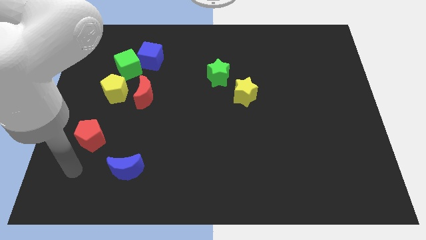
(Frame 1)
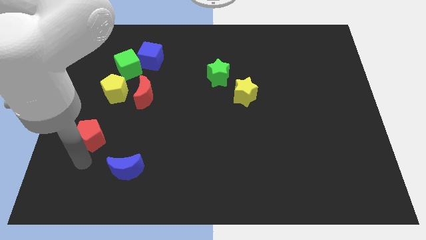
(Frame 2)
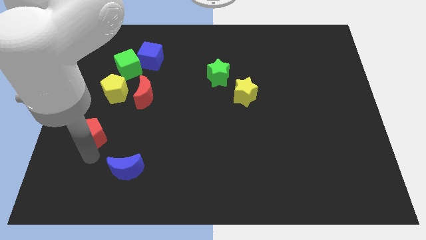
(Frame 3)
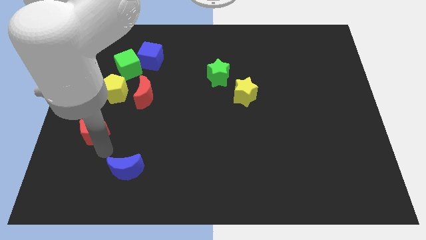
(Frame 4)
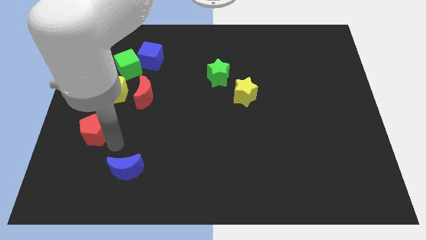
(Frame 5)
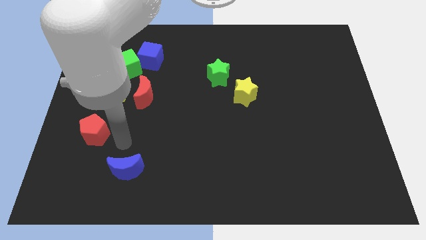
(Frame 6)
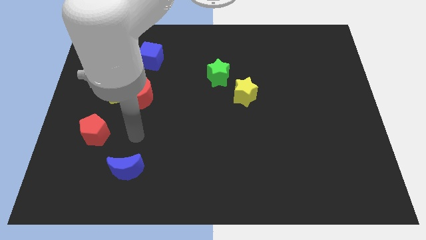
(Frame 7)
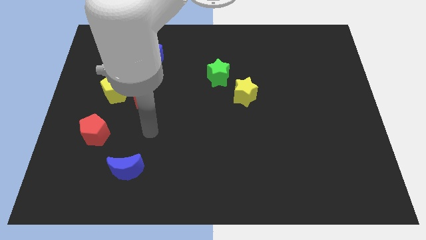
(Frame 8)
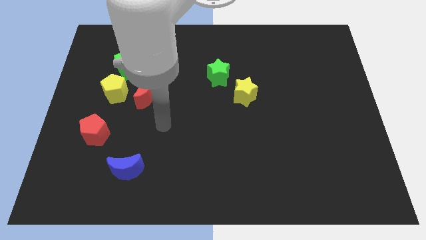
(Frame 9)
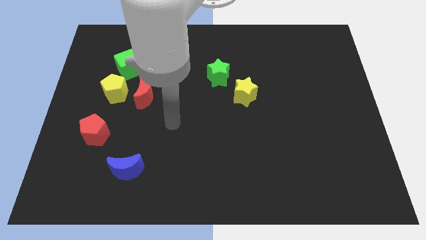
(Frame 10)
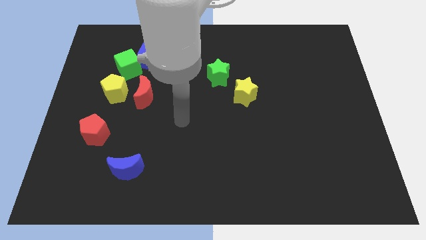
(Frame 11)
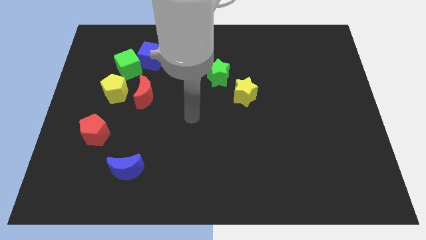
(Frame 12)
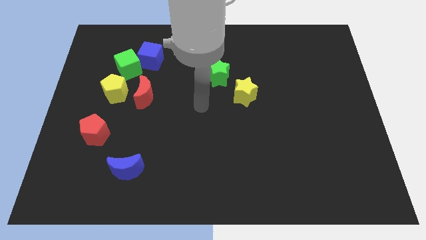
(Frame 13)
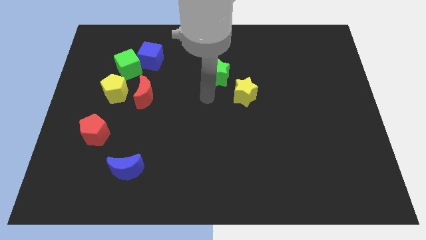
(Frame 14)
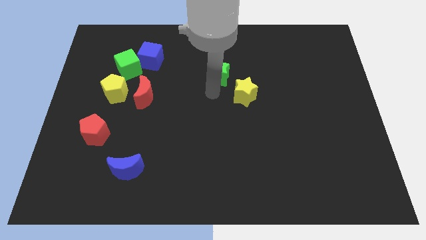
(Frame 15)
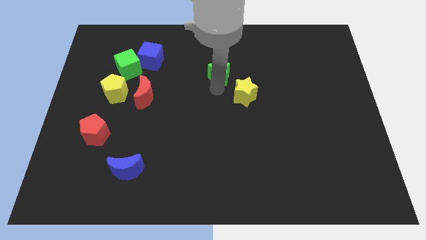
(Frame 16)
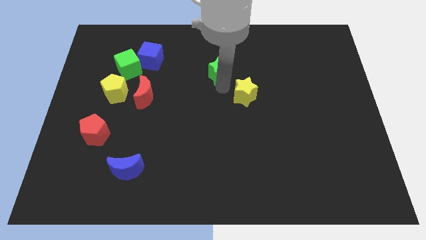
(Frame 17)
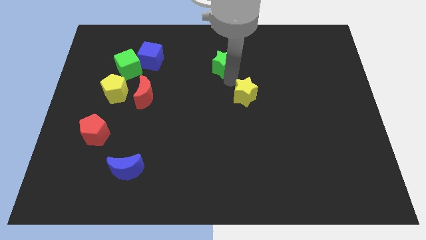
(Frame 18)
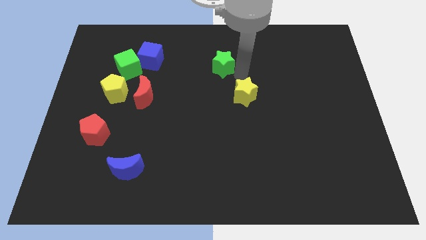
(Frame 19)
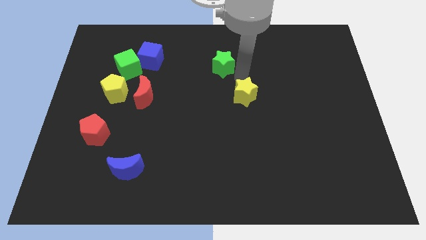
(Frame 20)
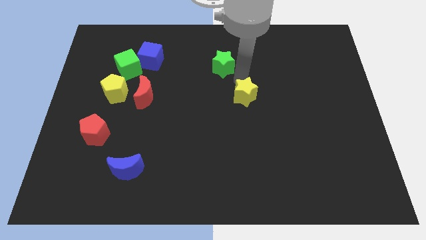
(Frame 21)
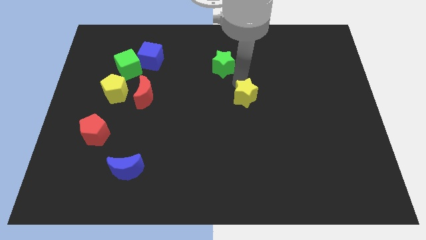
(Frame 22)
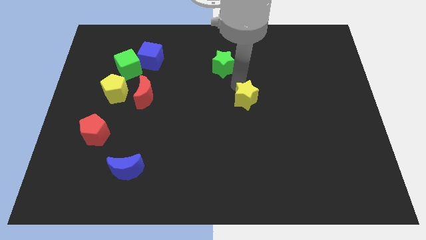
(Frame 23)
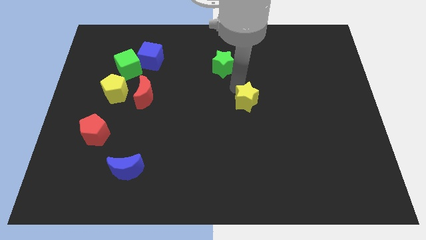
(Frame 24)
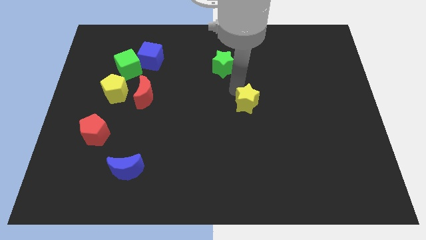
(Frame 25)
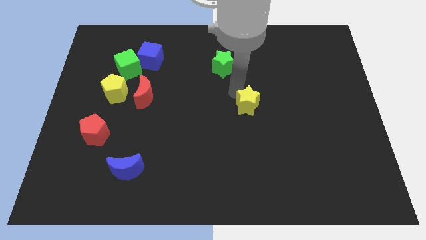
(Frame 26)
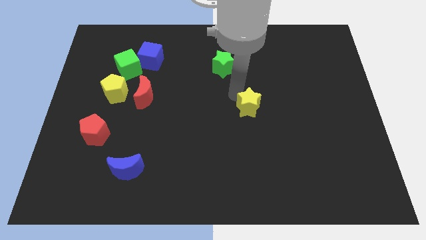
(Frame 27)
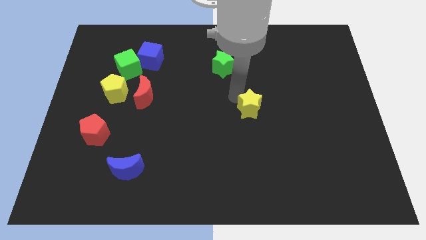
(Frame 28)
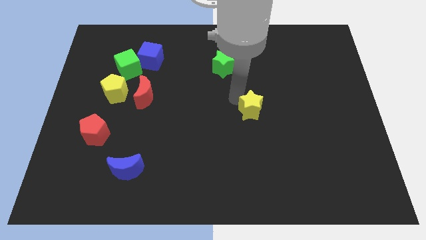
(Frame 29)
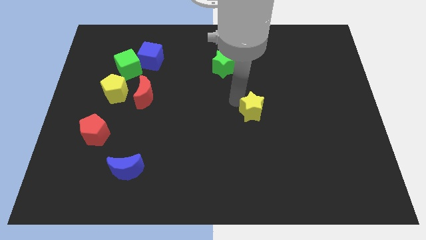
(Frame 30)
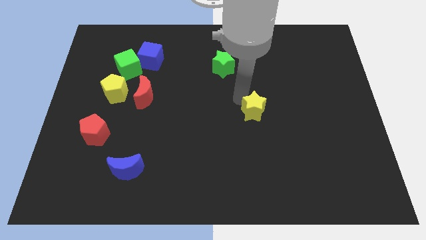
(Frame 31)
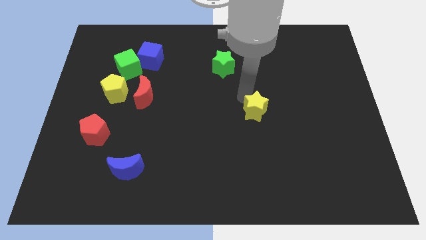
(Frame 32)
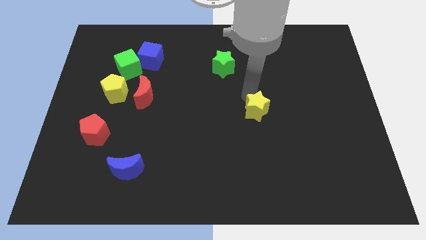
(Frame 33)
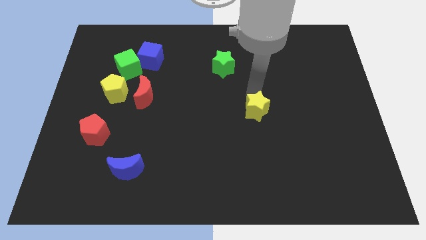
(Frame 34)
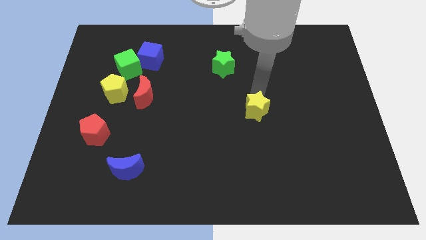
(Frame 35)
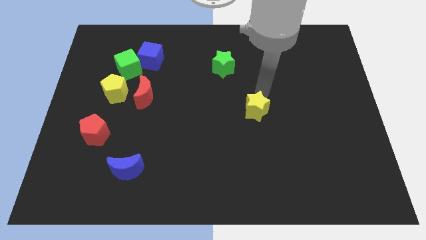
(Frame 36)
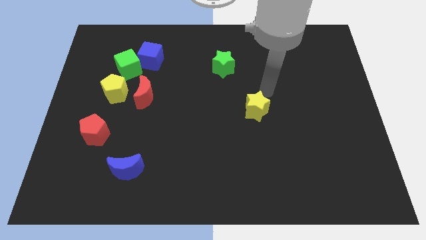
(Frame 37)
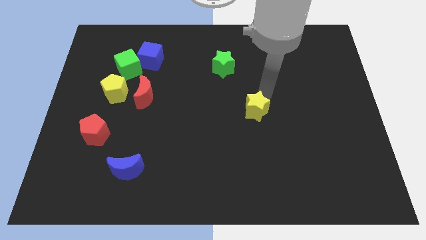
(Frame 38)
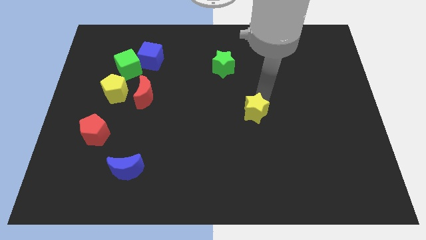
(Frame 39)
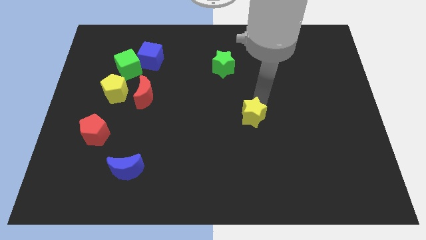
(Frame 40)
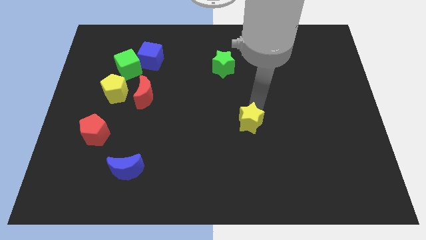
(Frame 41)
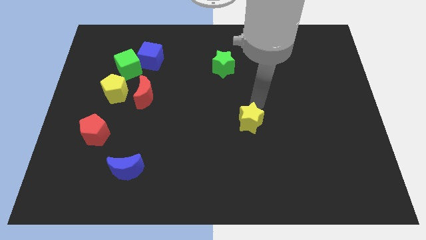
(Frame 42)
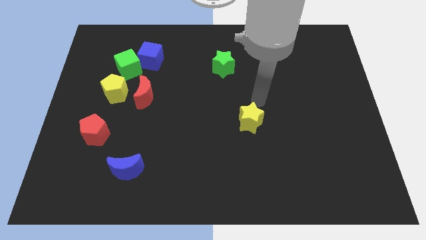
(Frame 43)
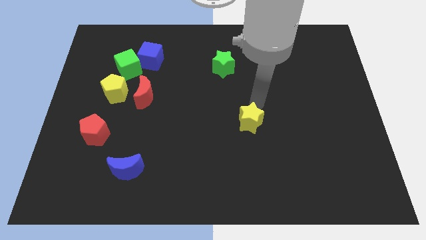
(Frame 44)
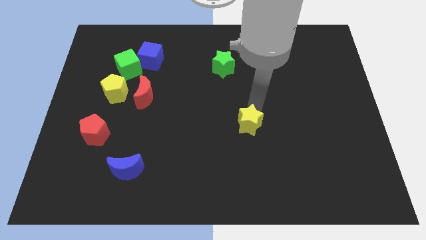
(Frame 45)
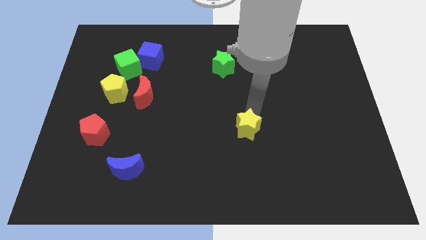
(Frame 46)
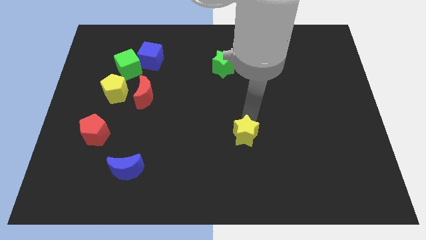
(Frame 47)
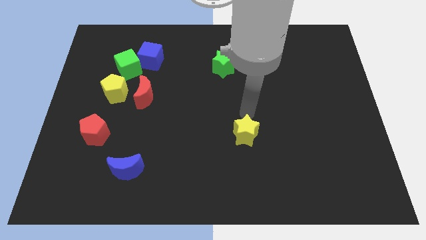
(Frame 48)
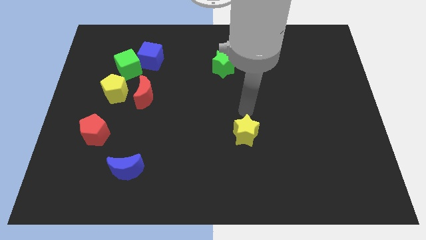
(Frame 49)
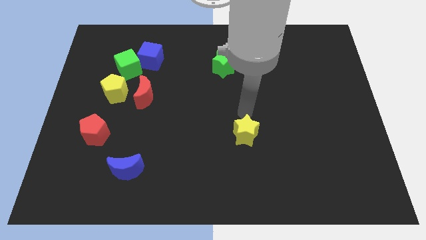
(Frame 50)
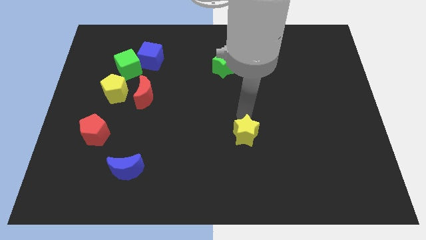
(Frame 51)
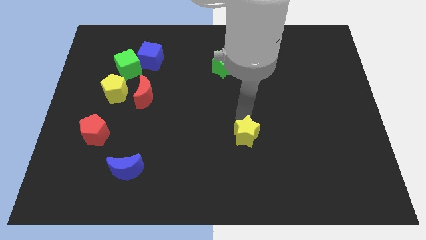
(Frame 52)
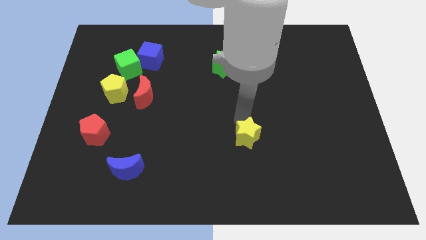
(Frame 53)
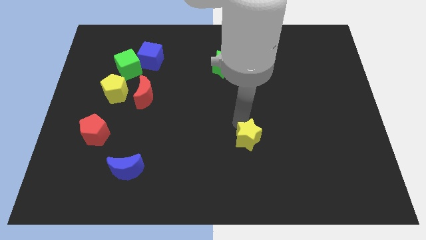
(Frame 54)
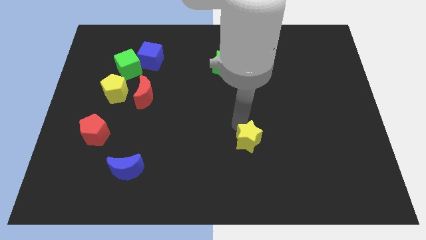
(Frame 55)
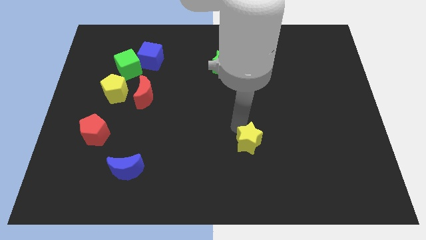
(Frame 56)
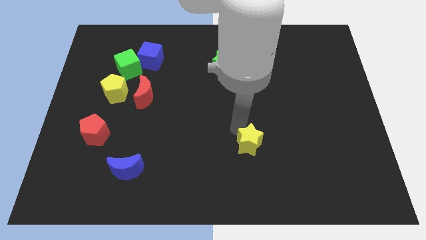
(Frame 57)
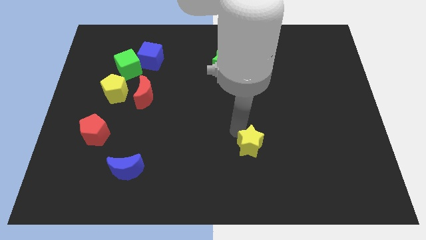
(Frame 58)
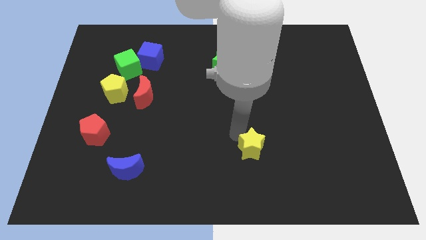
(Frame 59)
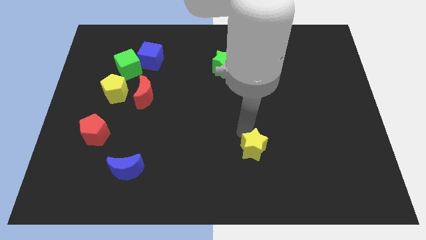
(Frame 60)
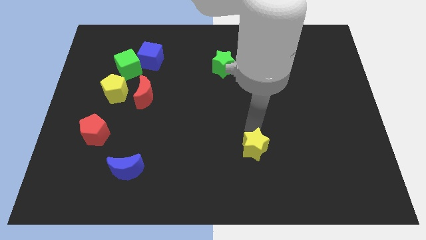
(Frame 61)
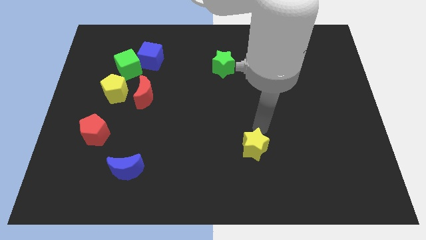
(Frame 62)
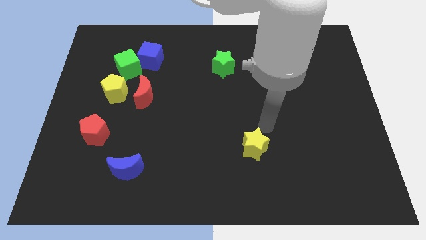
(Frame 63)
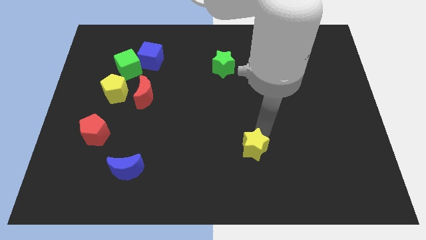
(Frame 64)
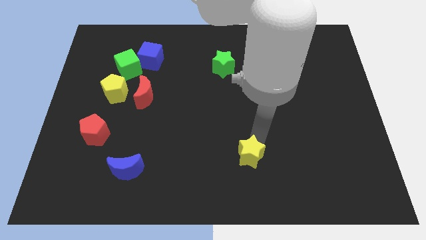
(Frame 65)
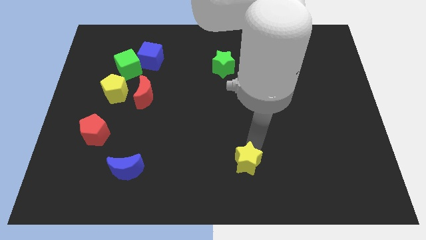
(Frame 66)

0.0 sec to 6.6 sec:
slide the yellow star to the bottom
